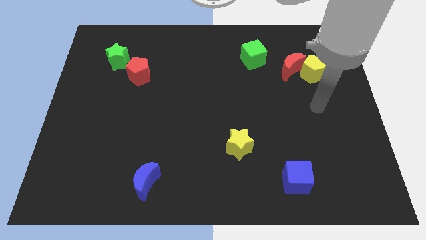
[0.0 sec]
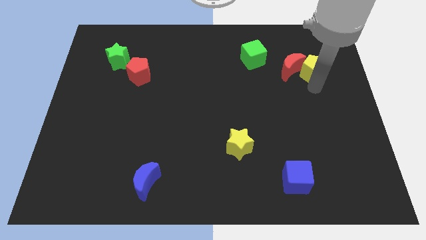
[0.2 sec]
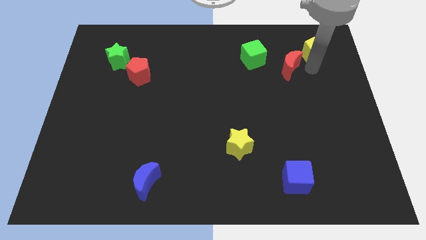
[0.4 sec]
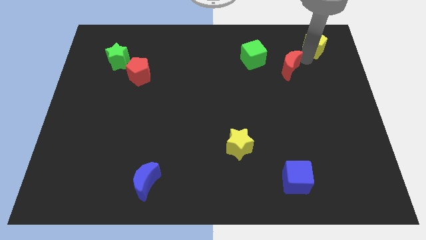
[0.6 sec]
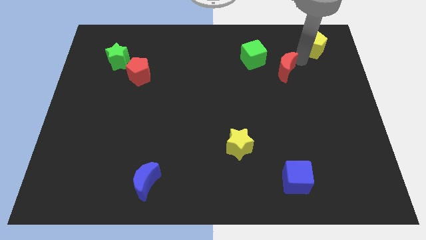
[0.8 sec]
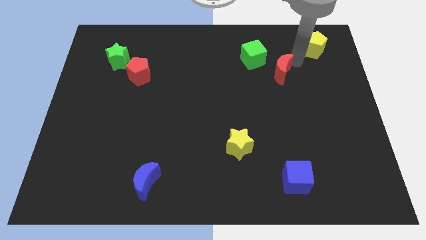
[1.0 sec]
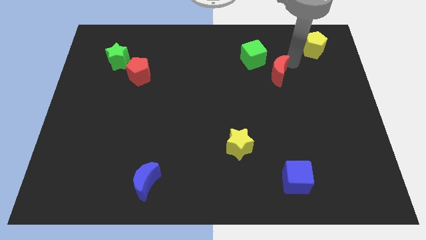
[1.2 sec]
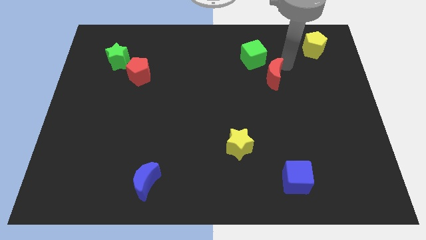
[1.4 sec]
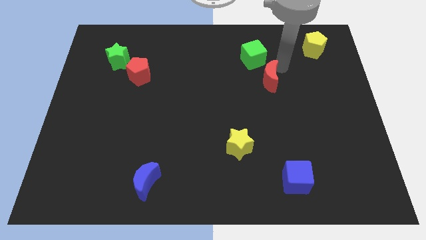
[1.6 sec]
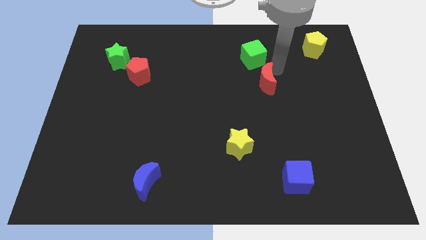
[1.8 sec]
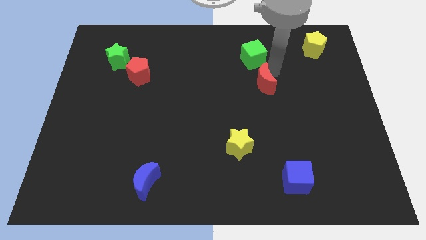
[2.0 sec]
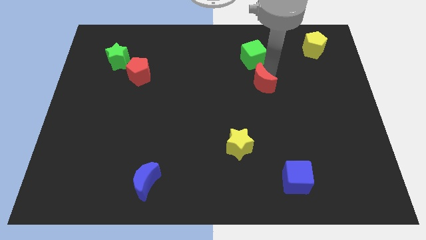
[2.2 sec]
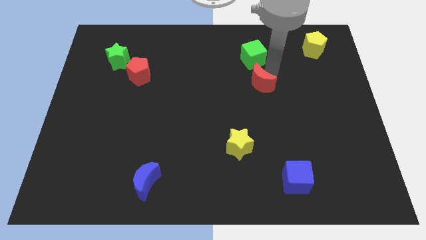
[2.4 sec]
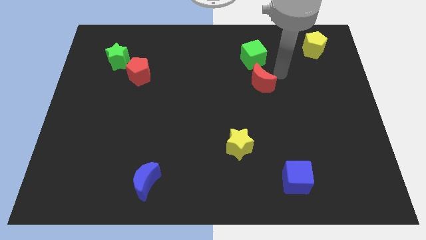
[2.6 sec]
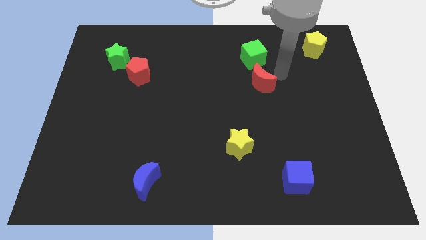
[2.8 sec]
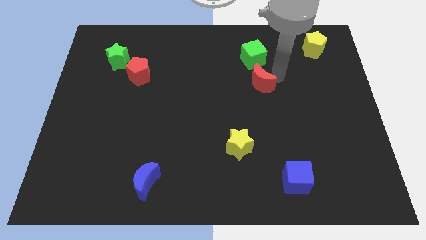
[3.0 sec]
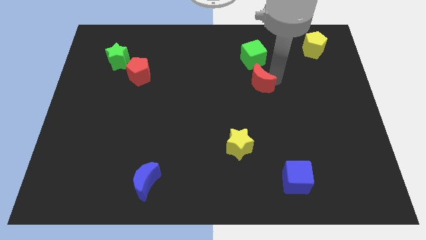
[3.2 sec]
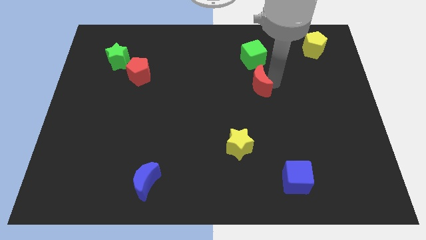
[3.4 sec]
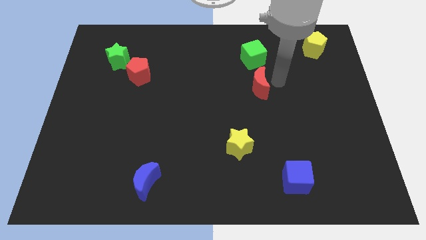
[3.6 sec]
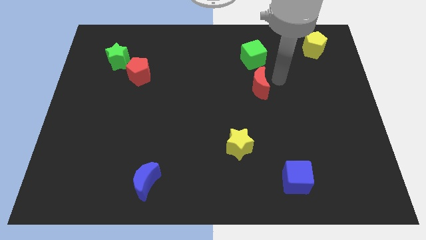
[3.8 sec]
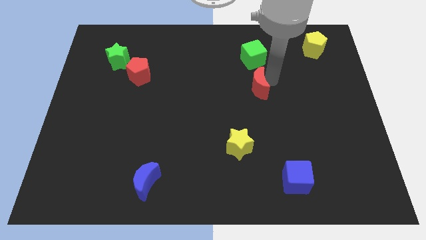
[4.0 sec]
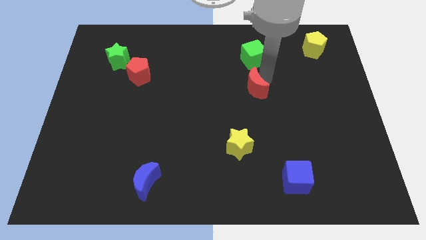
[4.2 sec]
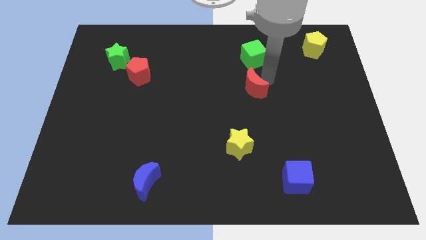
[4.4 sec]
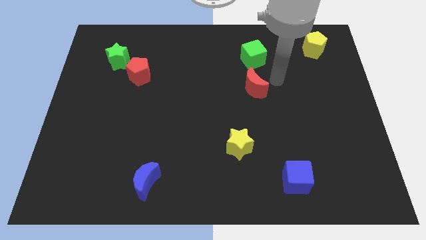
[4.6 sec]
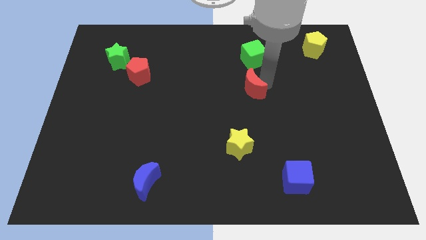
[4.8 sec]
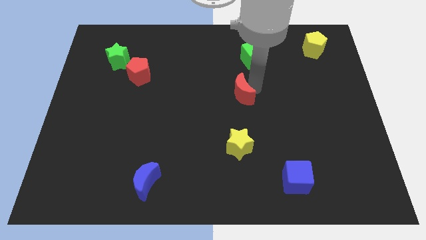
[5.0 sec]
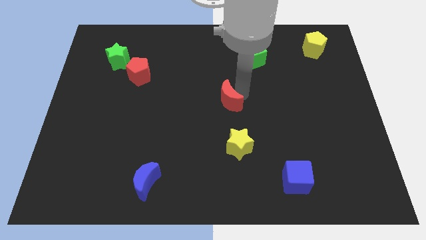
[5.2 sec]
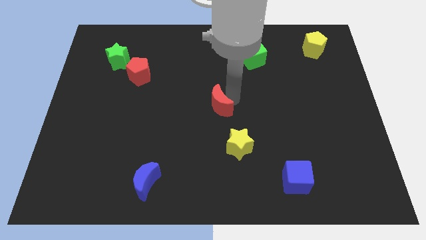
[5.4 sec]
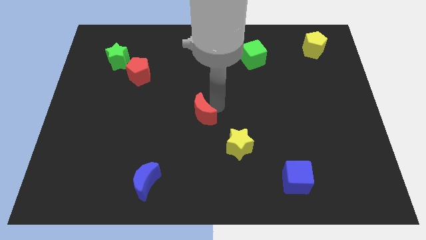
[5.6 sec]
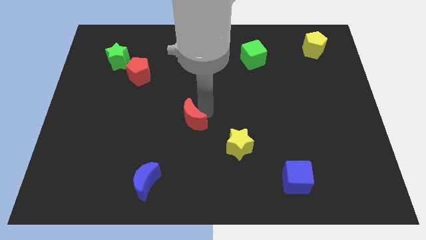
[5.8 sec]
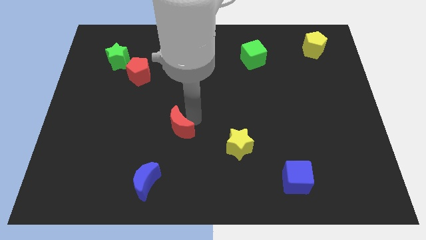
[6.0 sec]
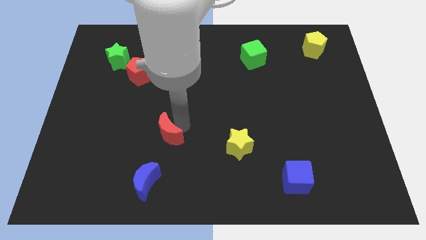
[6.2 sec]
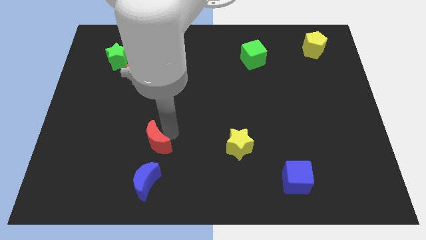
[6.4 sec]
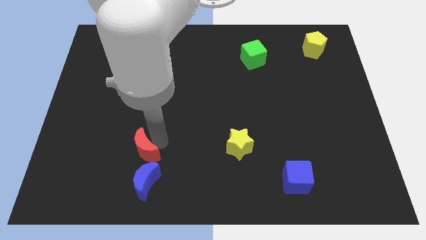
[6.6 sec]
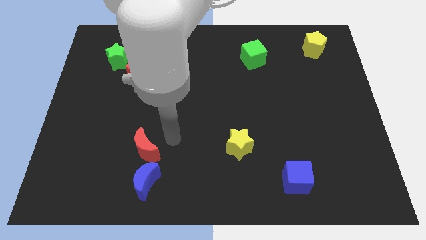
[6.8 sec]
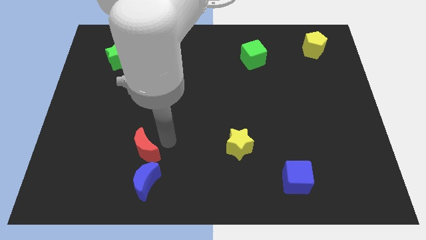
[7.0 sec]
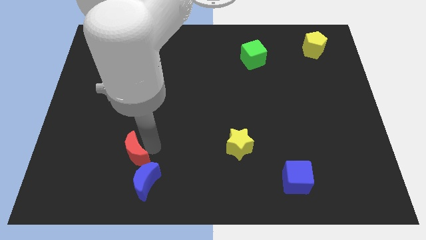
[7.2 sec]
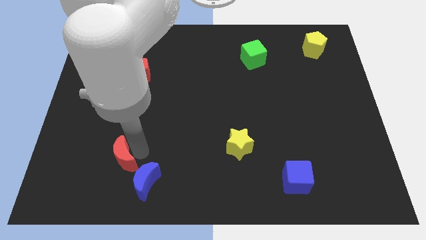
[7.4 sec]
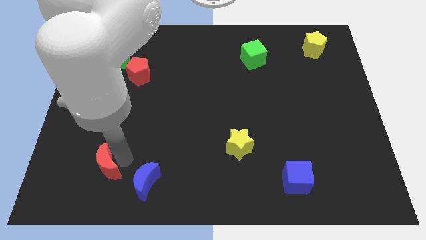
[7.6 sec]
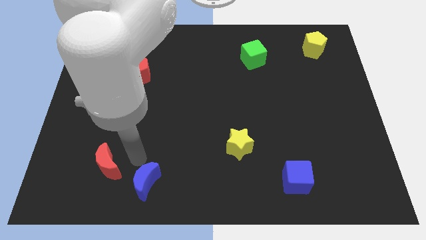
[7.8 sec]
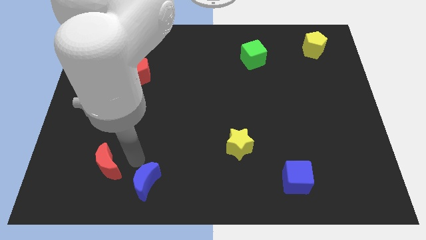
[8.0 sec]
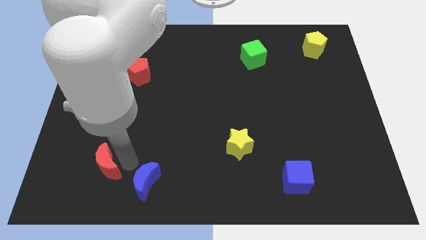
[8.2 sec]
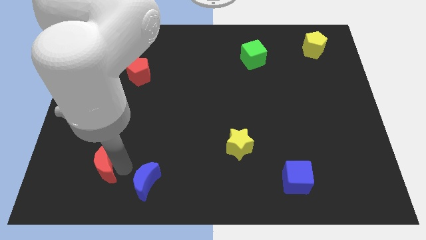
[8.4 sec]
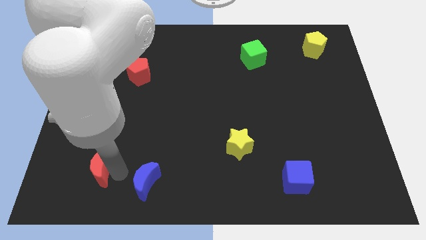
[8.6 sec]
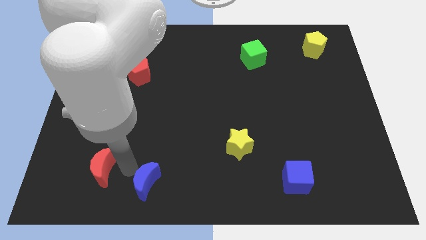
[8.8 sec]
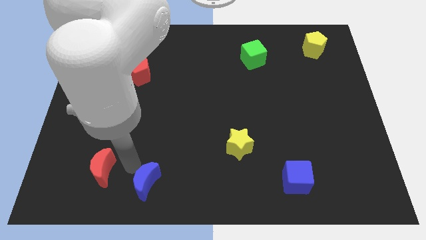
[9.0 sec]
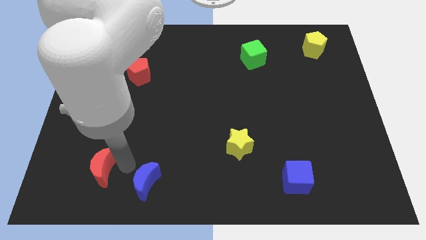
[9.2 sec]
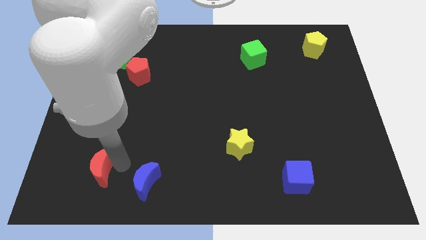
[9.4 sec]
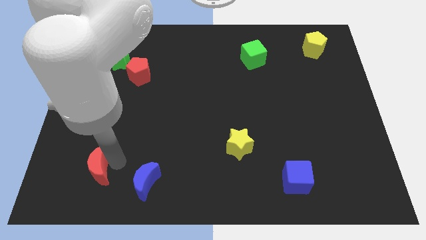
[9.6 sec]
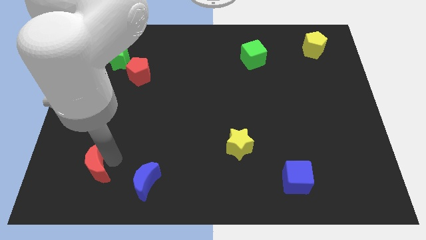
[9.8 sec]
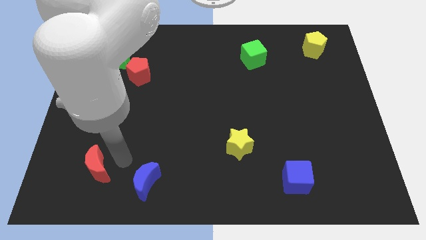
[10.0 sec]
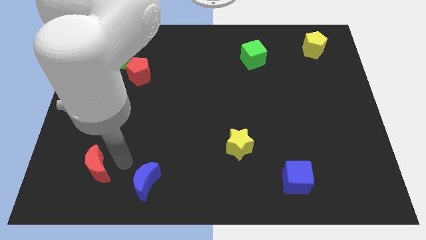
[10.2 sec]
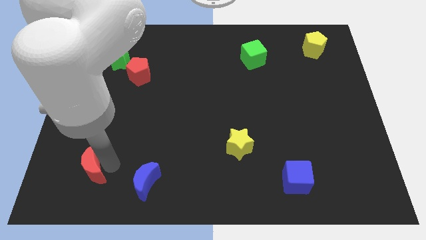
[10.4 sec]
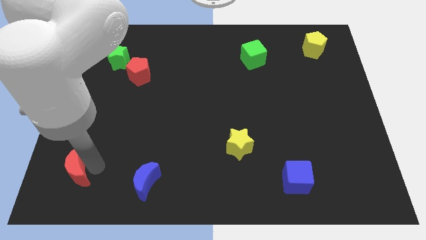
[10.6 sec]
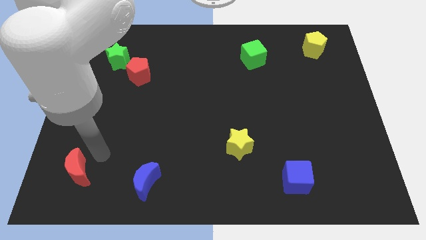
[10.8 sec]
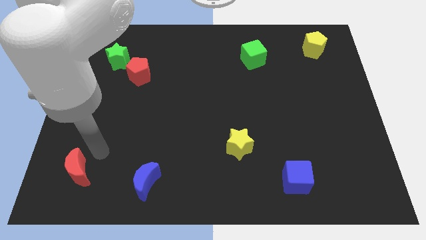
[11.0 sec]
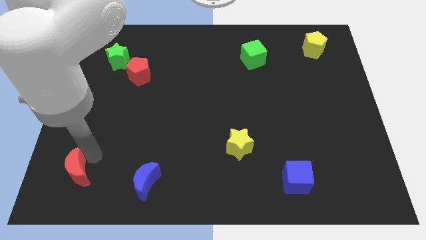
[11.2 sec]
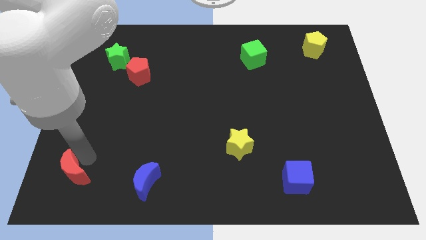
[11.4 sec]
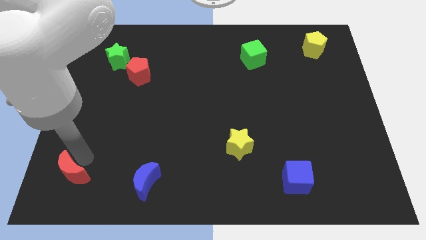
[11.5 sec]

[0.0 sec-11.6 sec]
put the red moon to the bottom left of the board

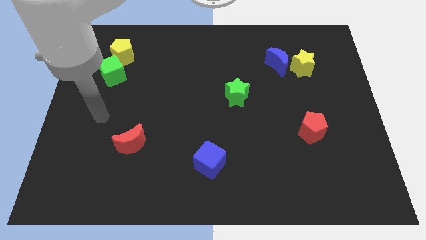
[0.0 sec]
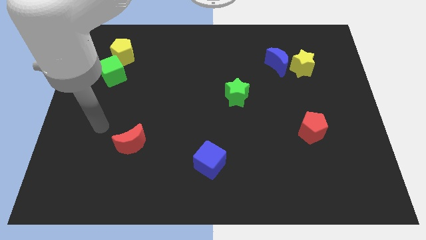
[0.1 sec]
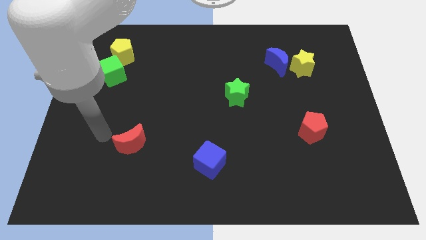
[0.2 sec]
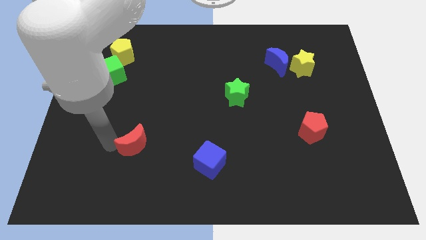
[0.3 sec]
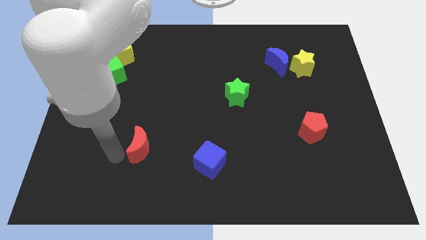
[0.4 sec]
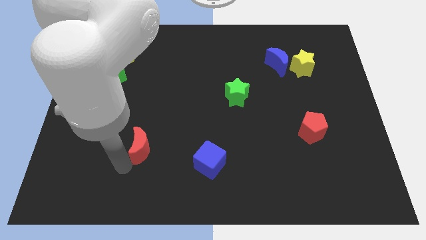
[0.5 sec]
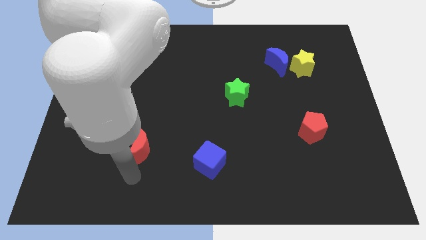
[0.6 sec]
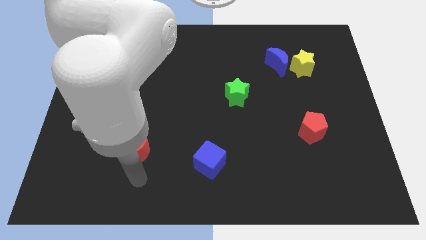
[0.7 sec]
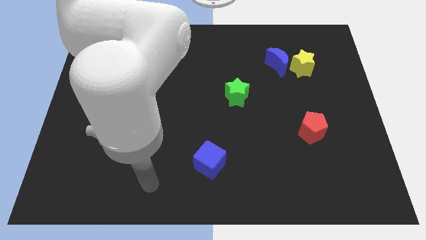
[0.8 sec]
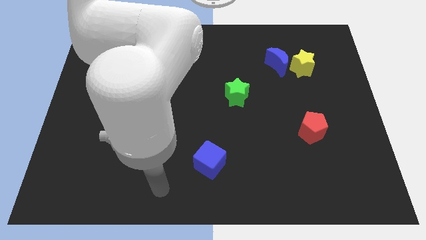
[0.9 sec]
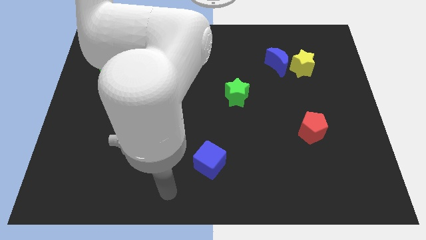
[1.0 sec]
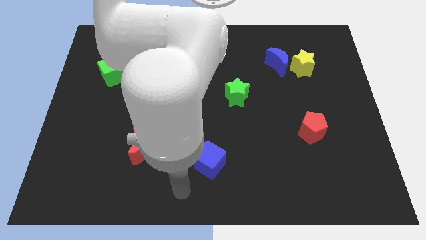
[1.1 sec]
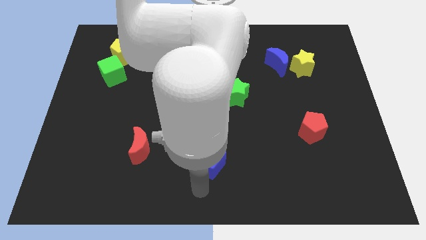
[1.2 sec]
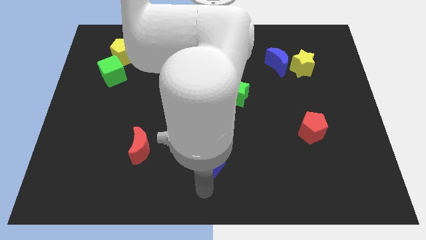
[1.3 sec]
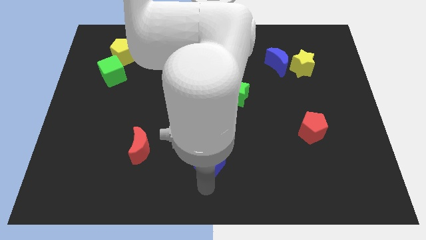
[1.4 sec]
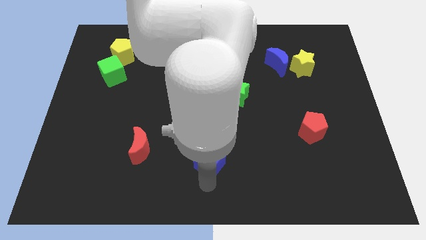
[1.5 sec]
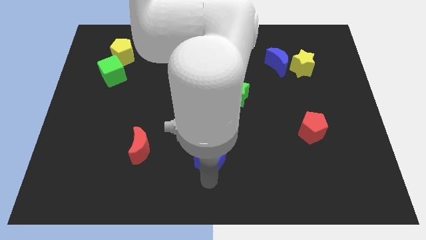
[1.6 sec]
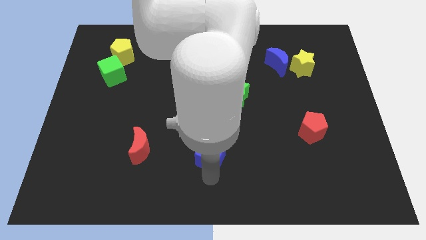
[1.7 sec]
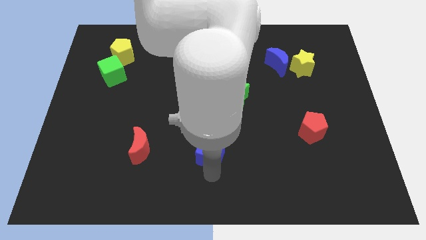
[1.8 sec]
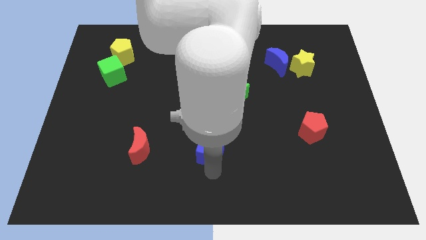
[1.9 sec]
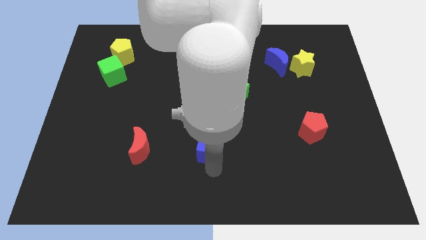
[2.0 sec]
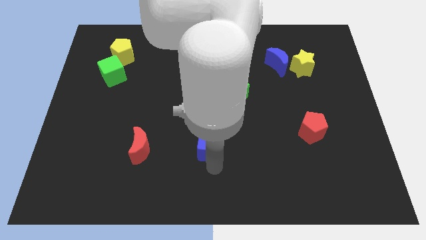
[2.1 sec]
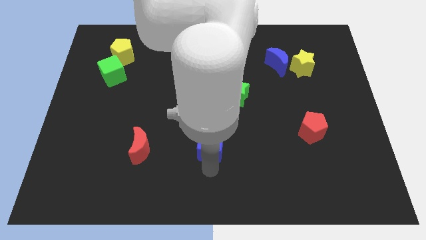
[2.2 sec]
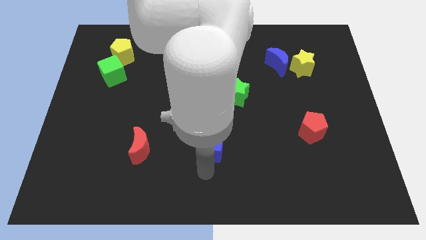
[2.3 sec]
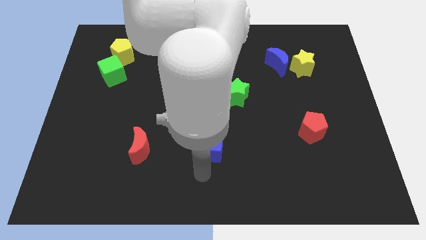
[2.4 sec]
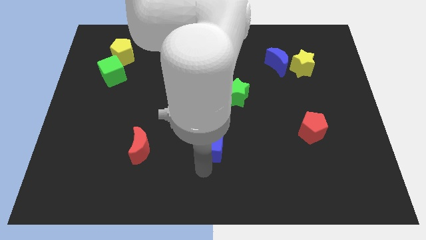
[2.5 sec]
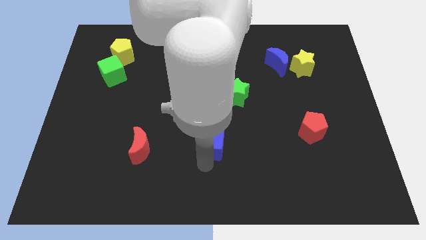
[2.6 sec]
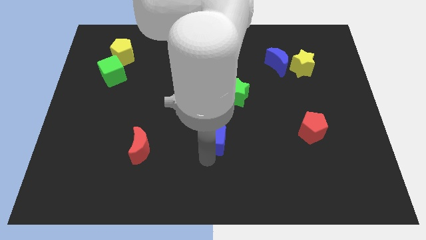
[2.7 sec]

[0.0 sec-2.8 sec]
slide the blue cube to the center
